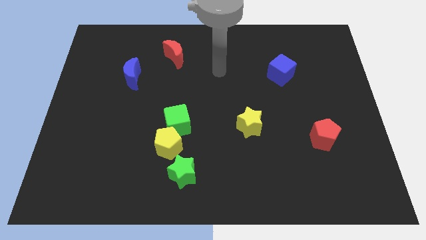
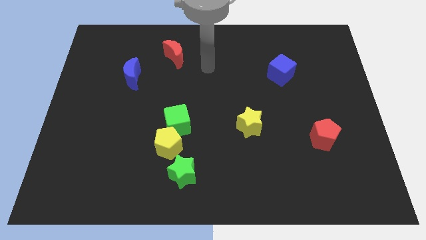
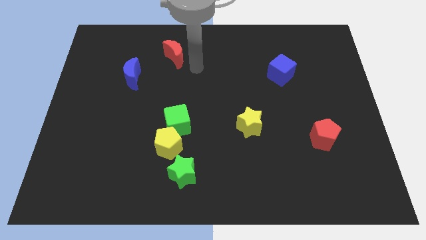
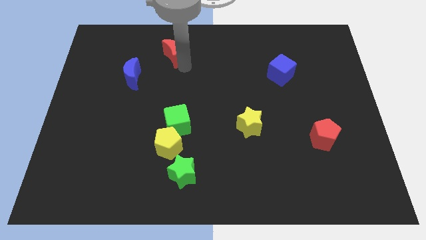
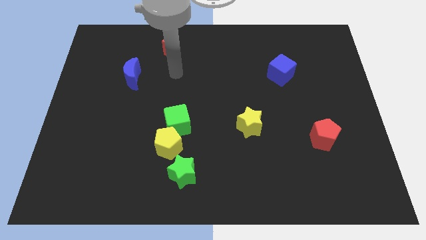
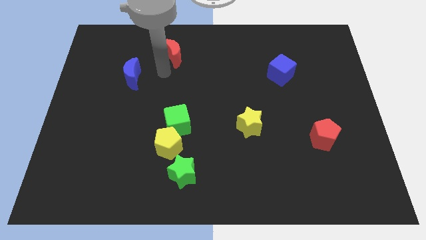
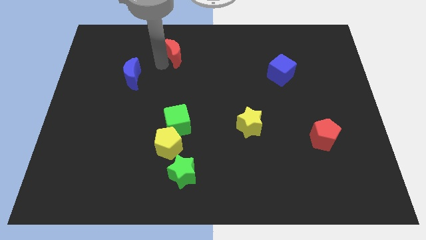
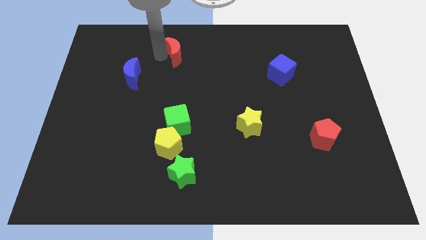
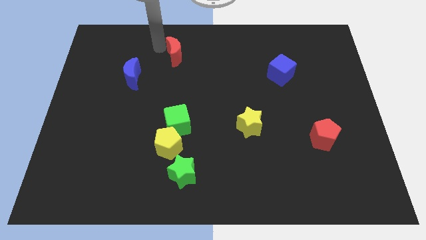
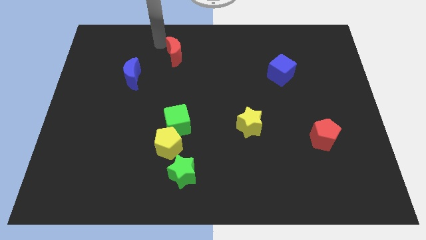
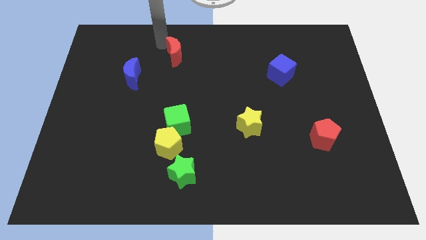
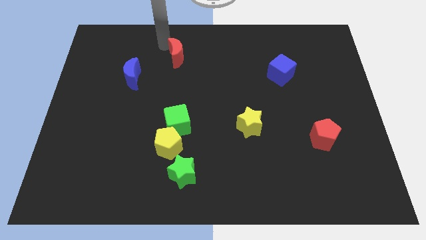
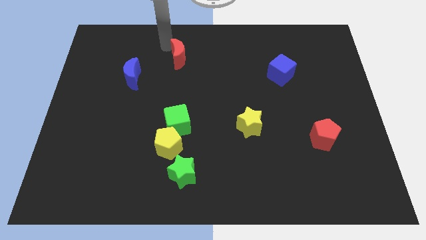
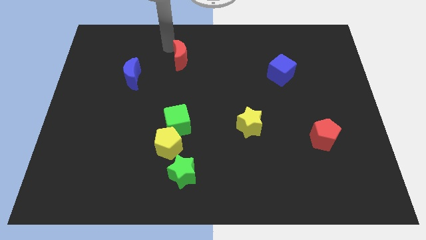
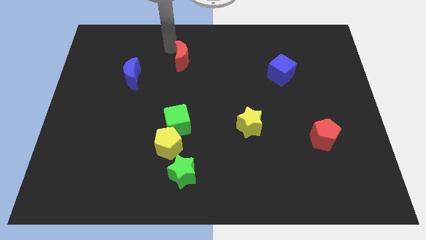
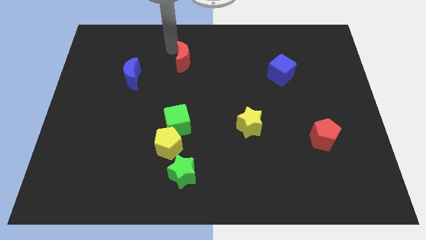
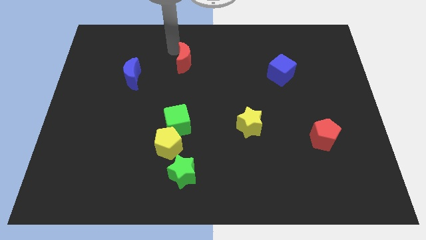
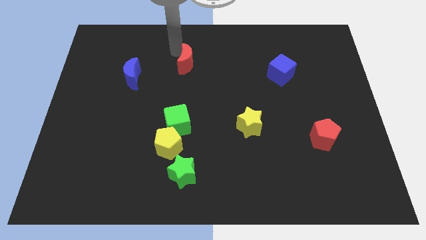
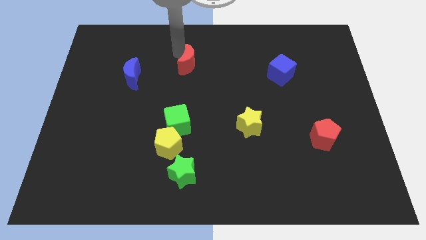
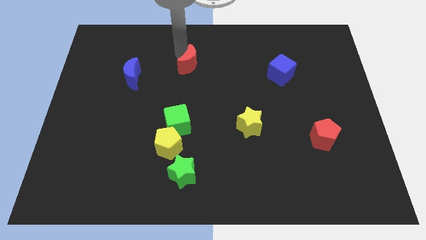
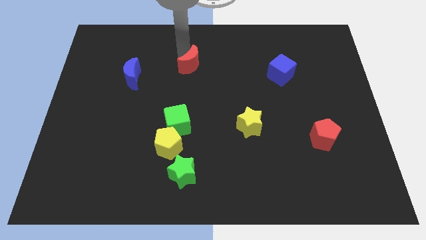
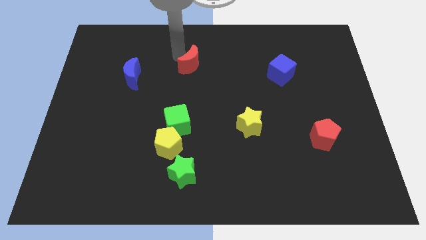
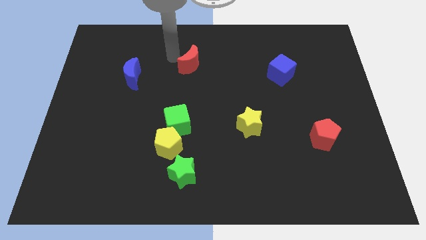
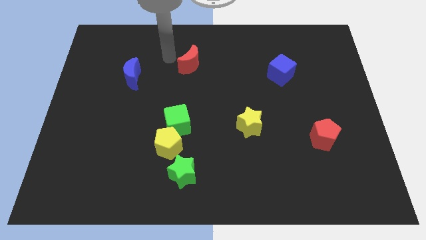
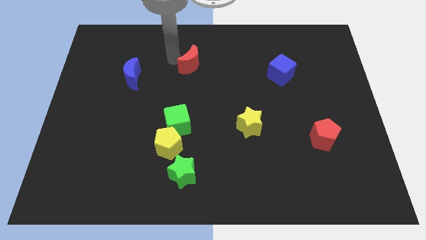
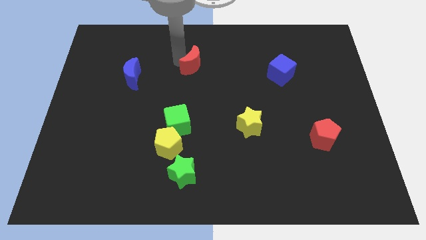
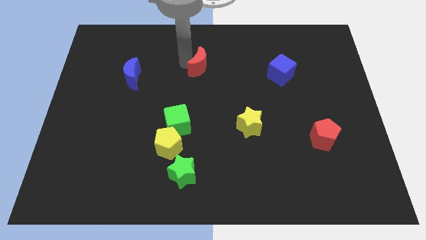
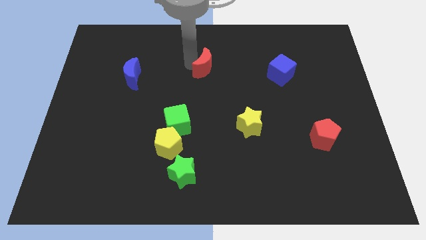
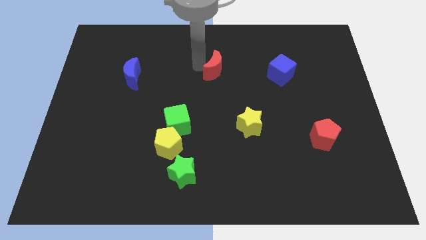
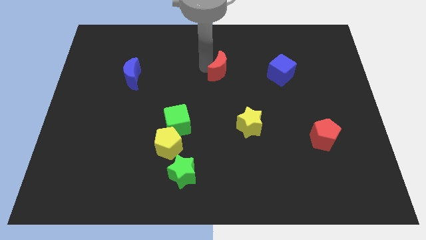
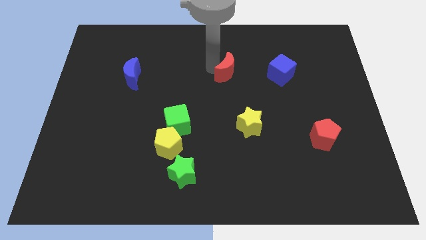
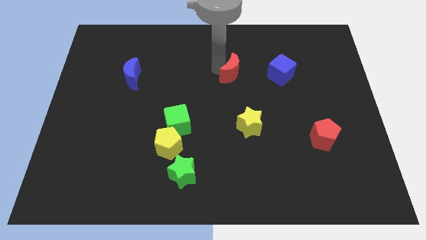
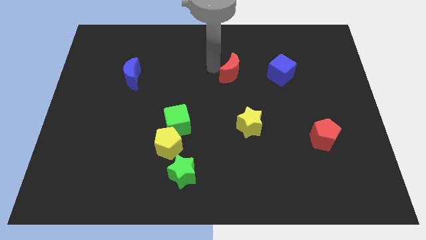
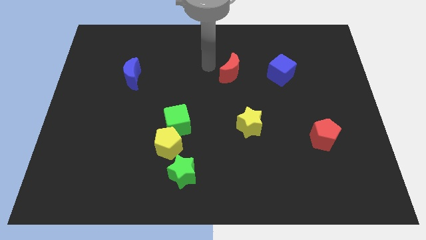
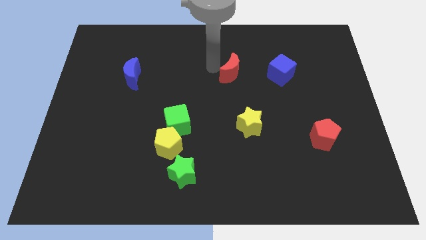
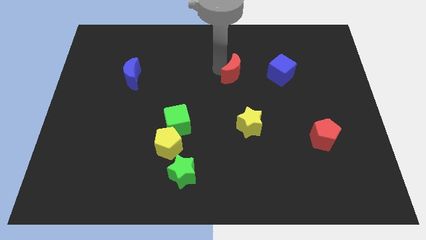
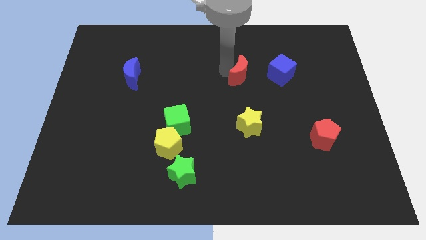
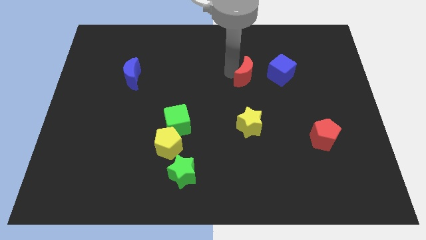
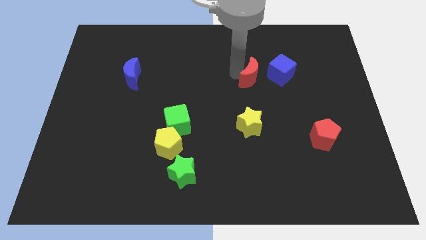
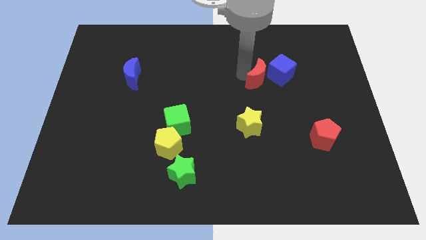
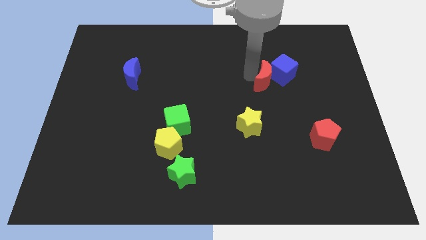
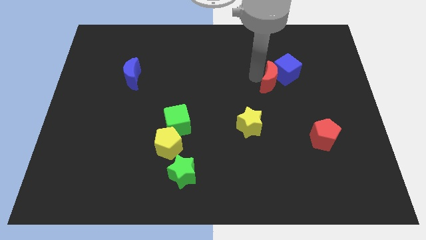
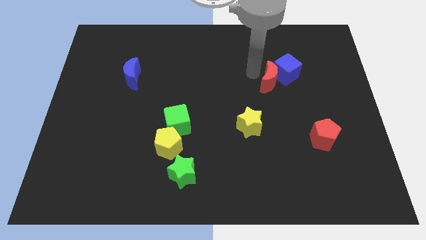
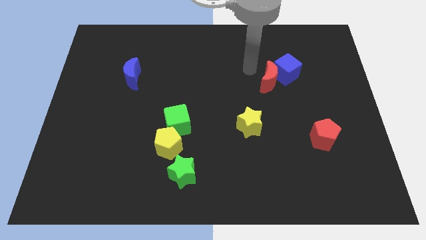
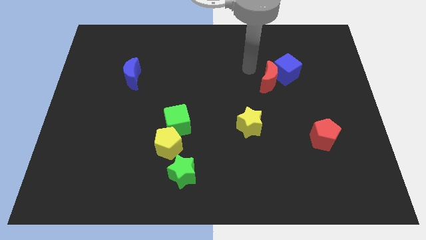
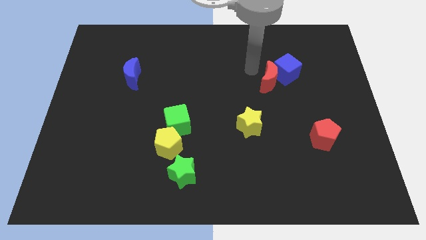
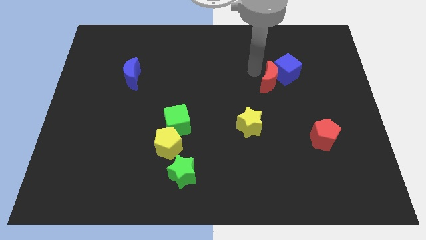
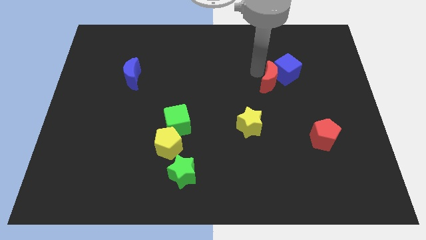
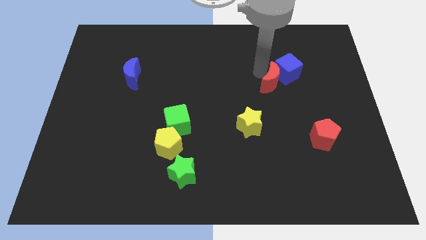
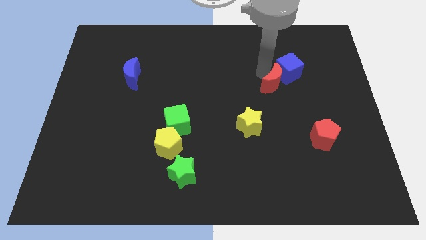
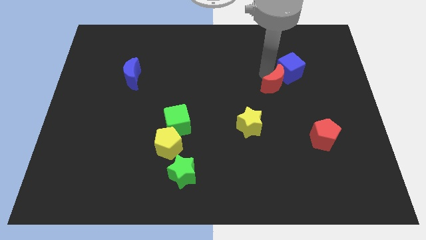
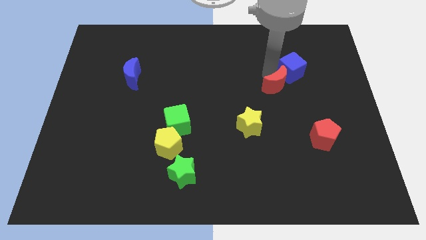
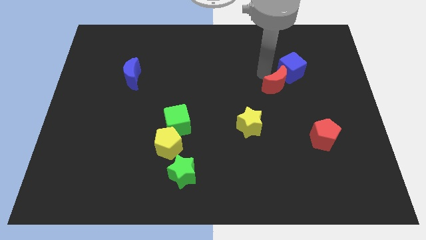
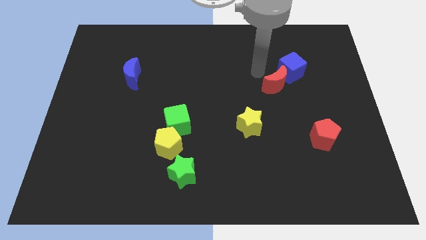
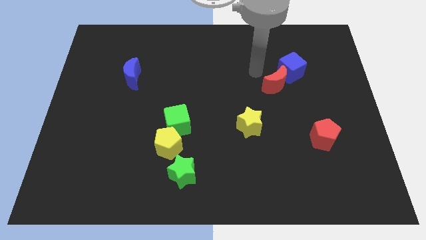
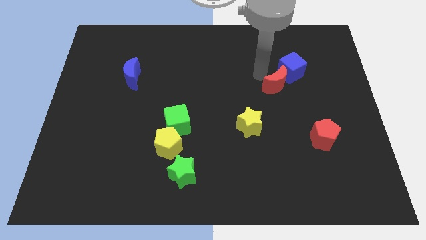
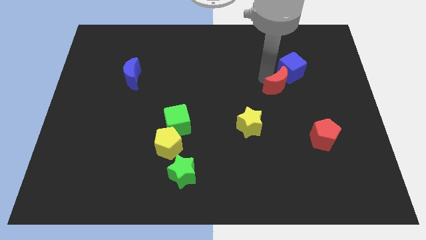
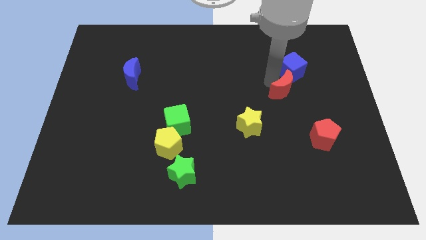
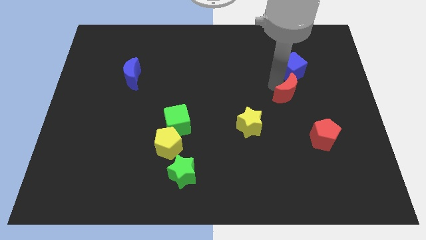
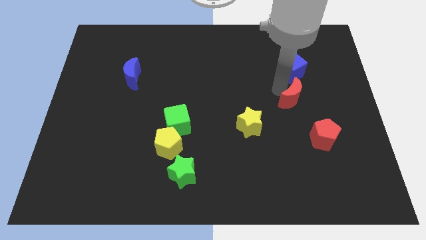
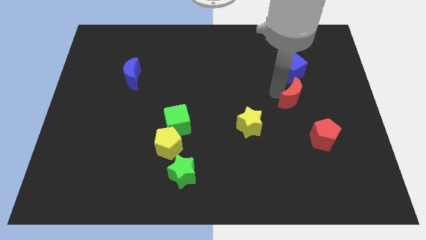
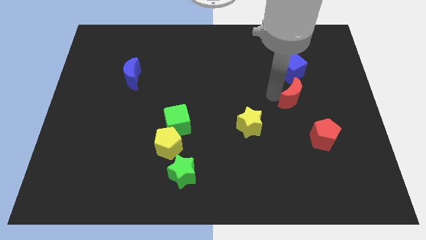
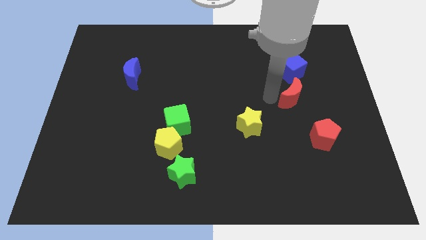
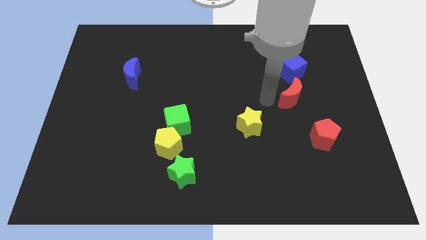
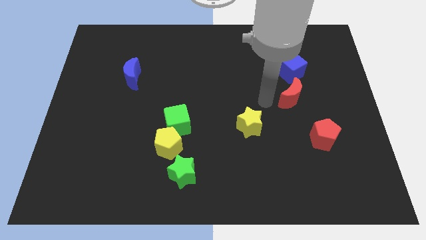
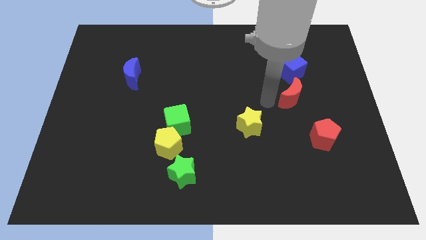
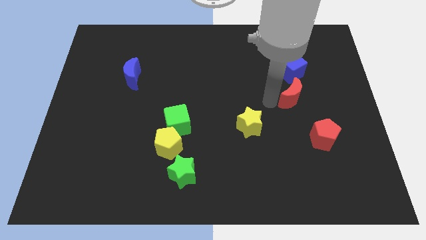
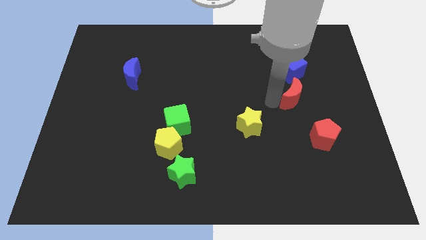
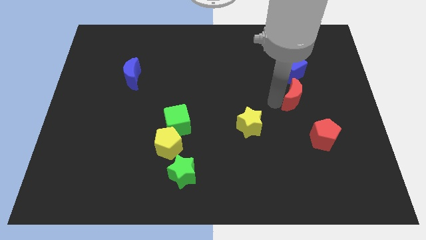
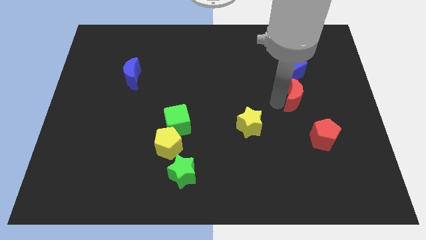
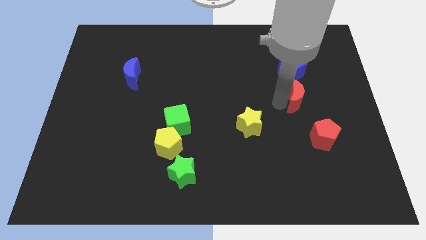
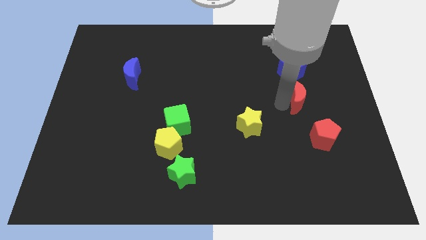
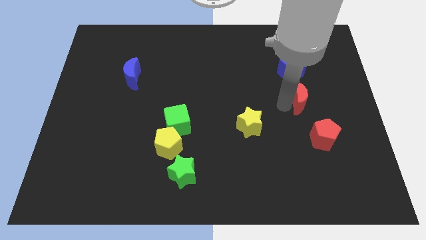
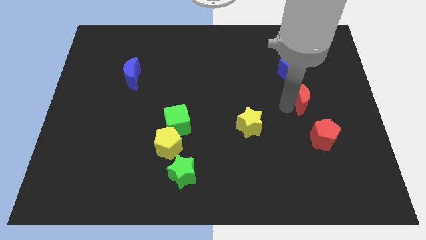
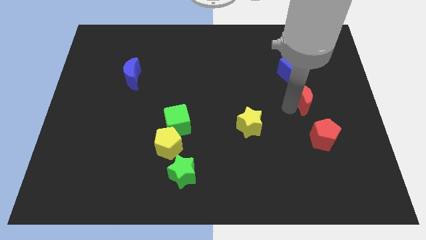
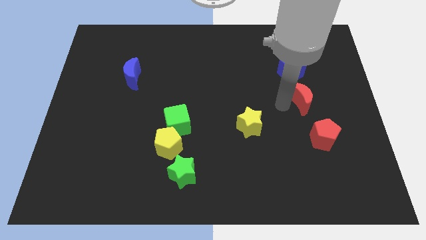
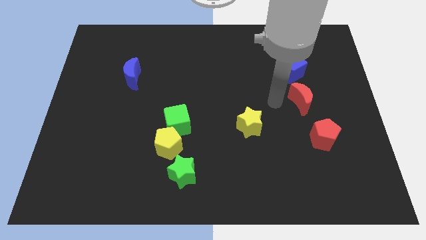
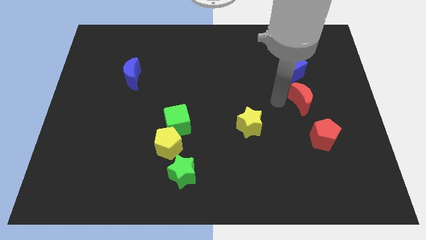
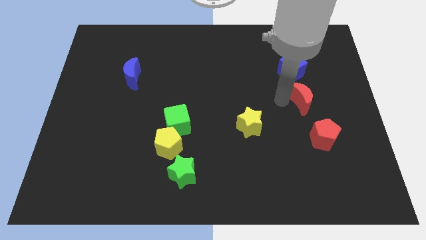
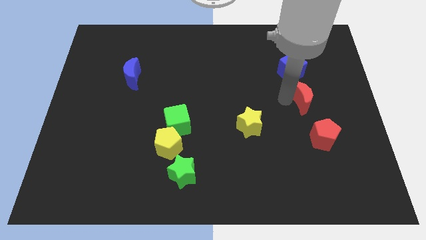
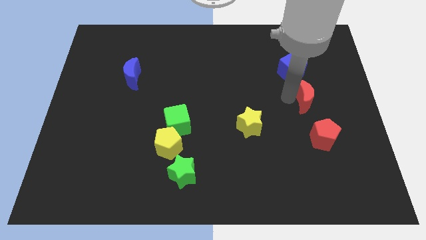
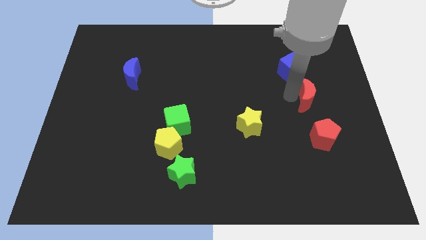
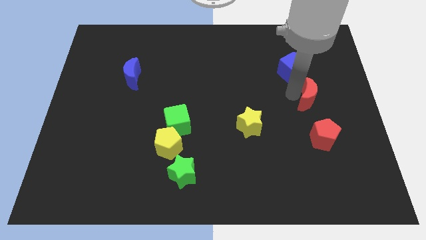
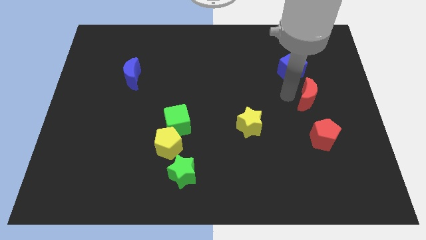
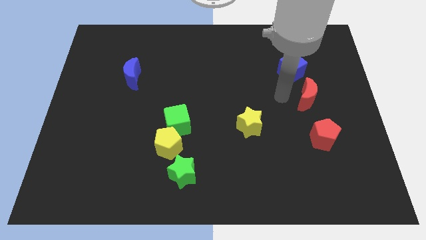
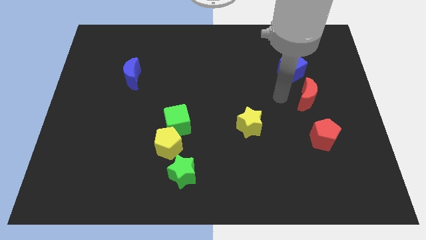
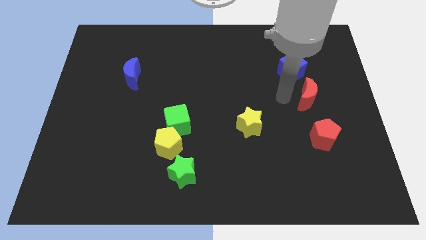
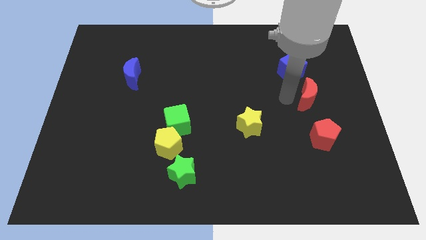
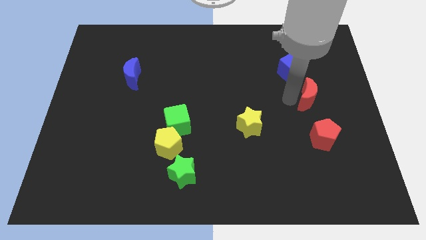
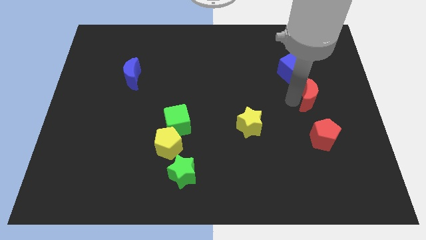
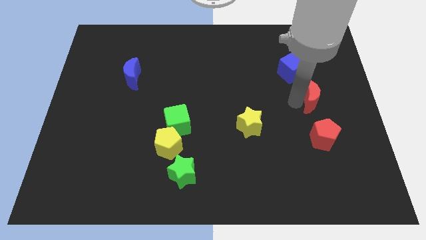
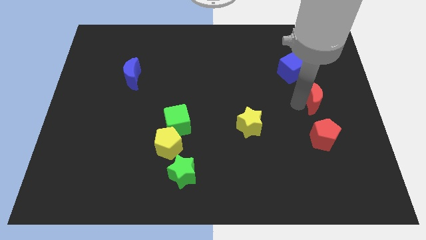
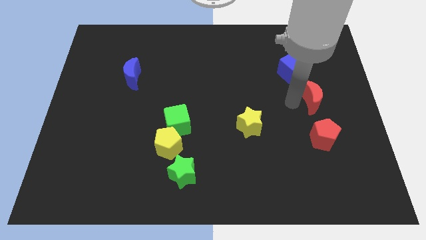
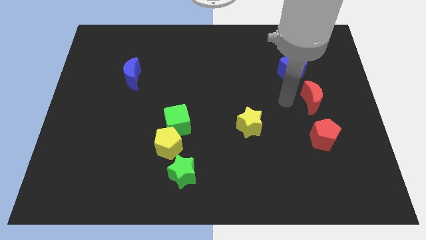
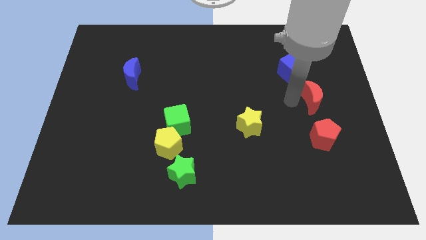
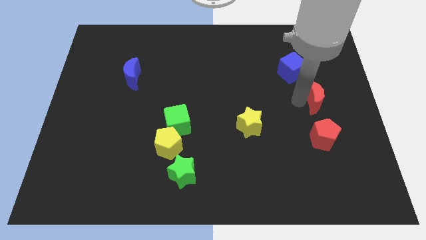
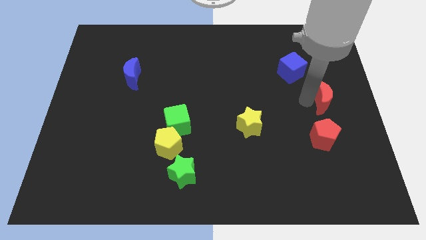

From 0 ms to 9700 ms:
move the red moon to the right side of the board
